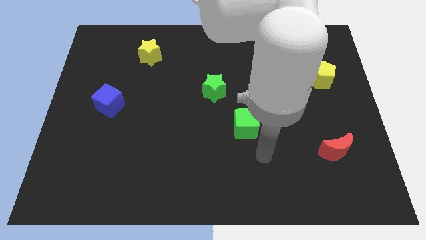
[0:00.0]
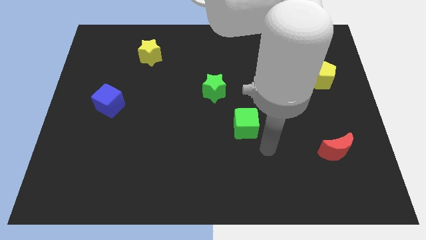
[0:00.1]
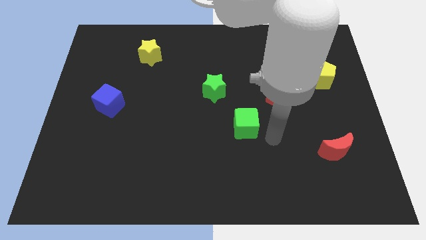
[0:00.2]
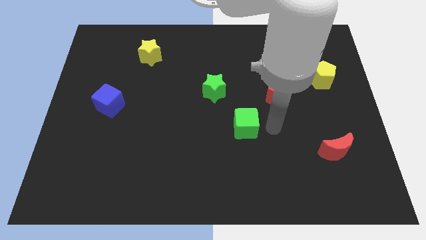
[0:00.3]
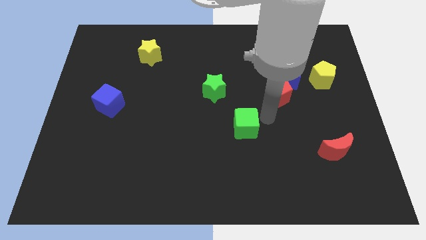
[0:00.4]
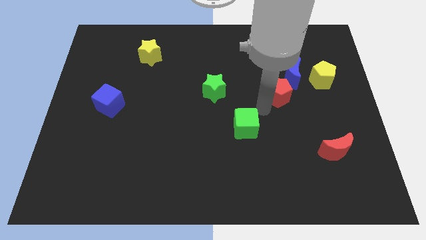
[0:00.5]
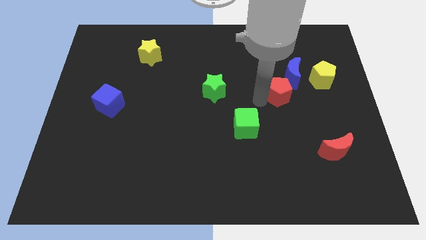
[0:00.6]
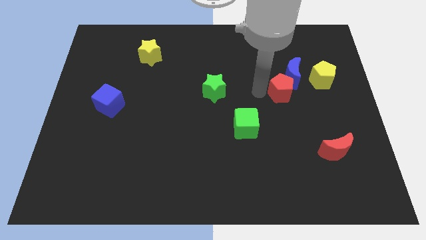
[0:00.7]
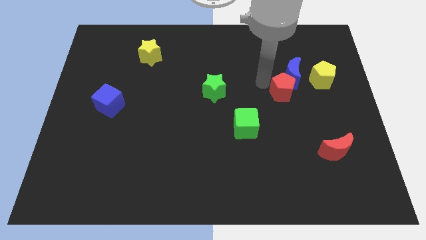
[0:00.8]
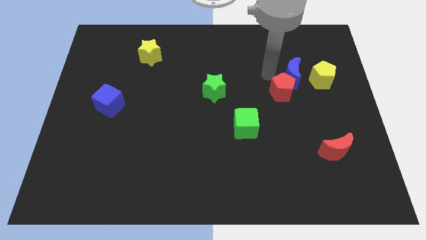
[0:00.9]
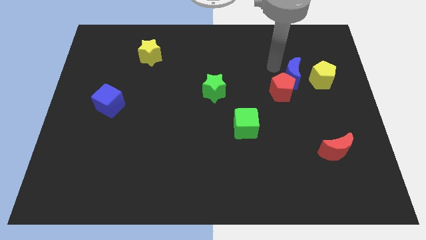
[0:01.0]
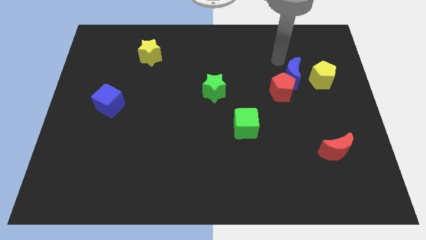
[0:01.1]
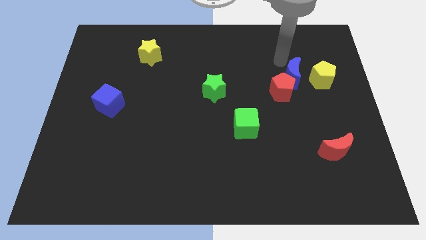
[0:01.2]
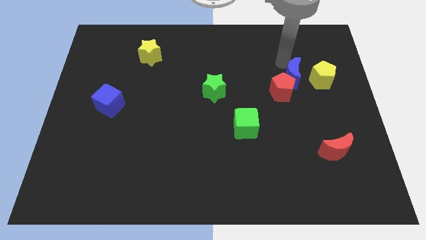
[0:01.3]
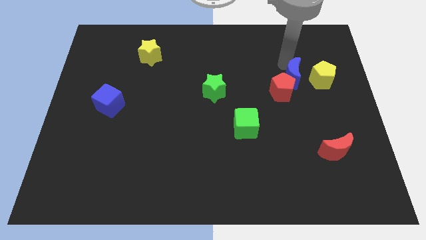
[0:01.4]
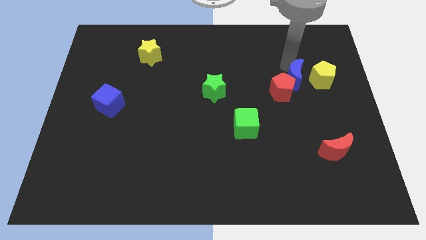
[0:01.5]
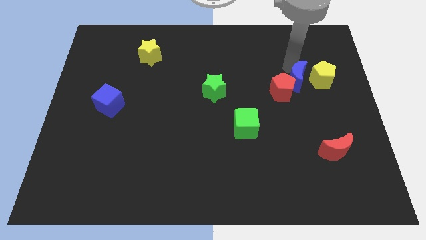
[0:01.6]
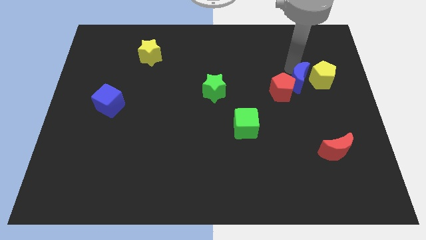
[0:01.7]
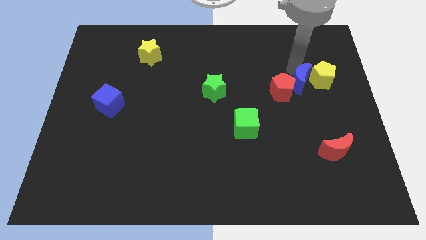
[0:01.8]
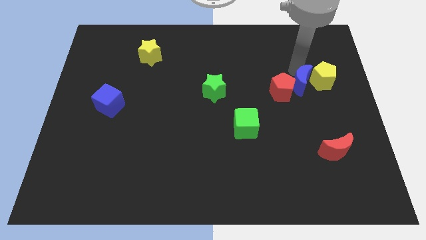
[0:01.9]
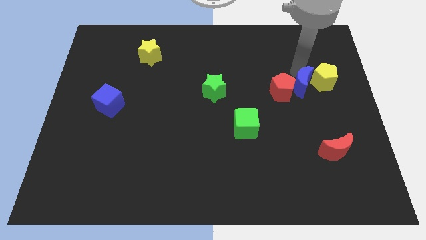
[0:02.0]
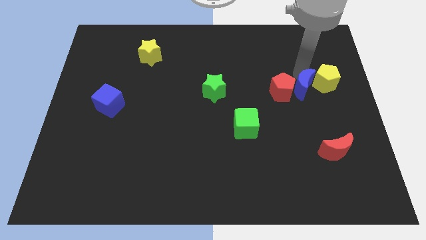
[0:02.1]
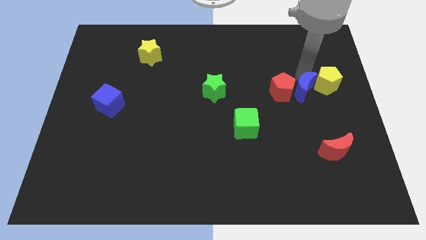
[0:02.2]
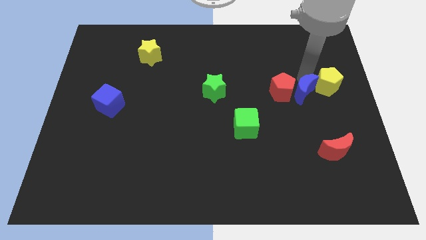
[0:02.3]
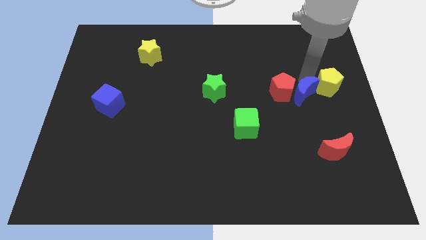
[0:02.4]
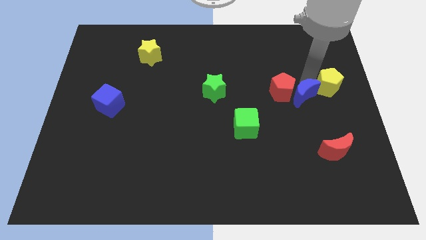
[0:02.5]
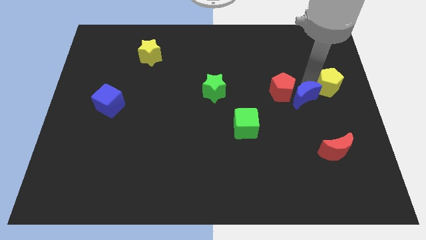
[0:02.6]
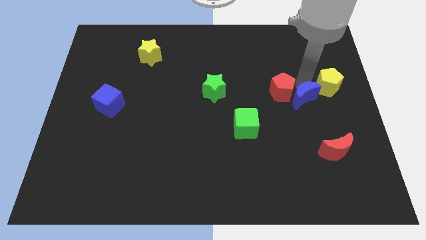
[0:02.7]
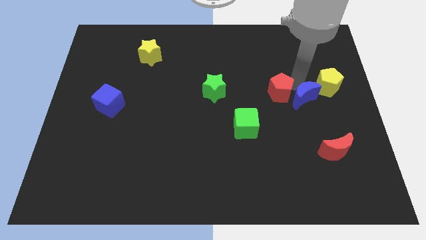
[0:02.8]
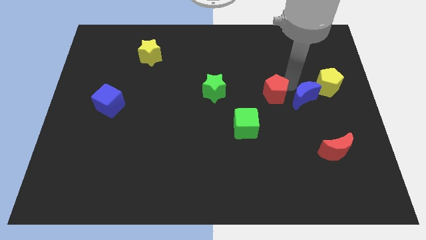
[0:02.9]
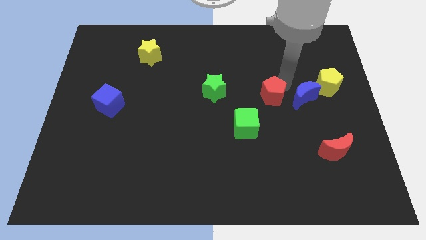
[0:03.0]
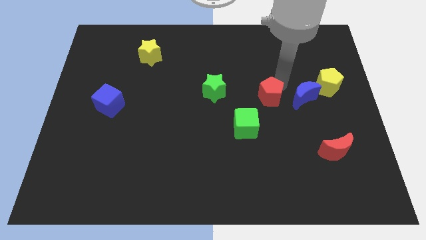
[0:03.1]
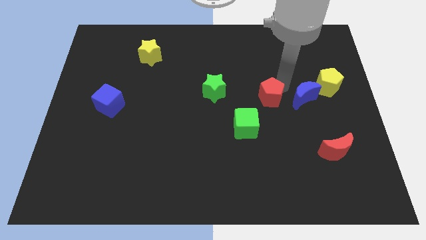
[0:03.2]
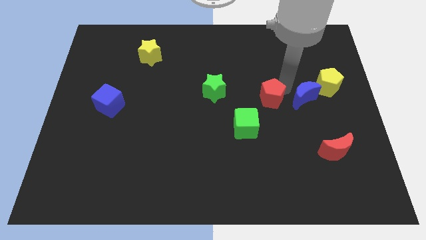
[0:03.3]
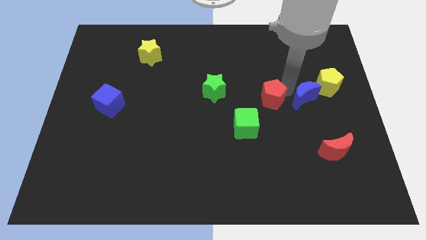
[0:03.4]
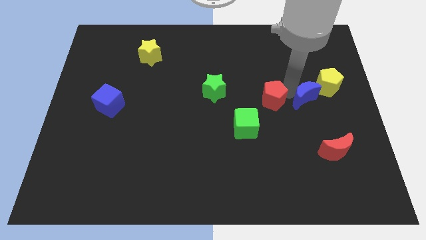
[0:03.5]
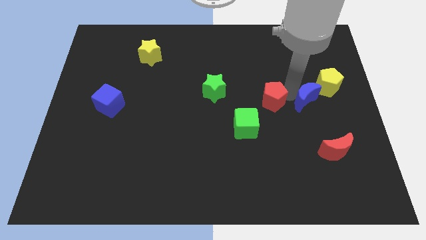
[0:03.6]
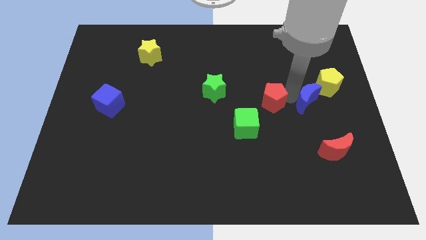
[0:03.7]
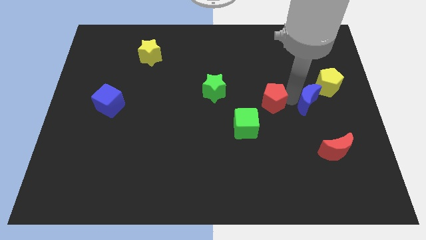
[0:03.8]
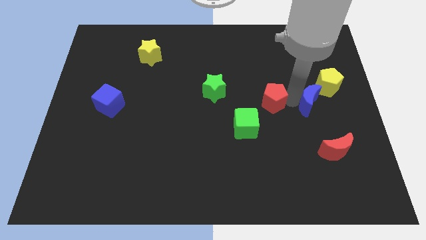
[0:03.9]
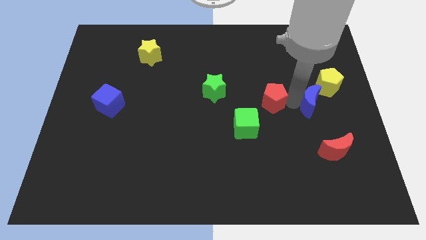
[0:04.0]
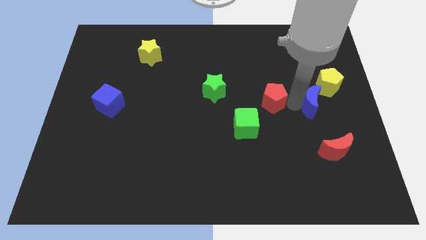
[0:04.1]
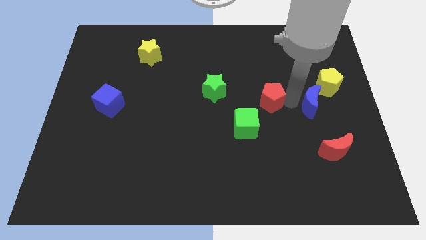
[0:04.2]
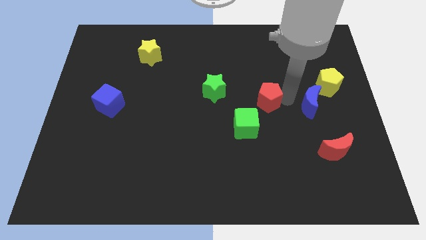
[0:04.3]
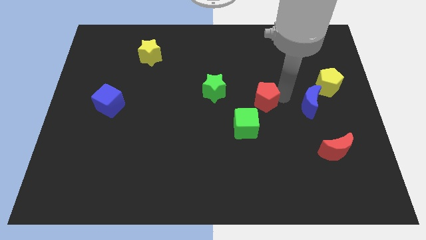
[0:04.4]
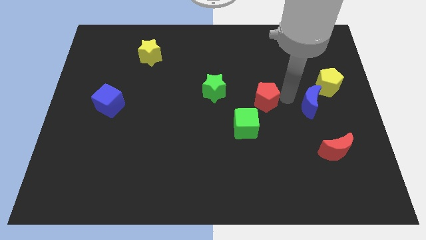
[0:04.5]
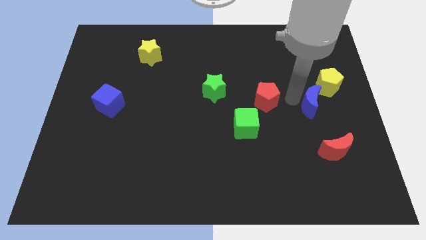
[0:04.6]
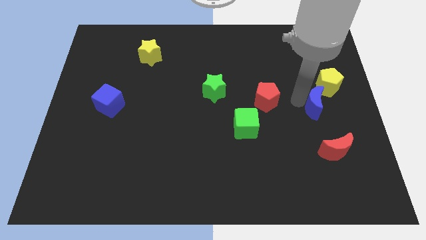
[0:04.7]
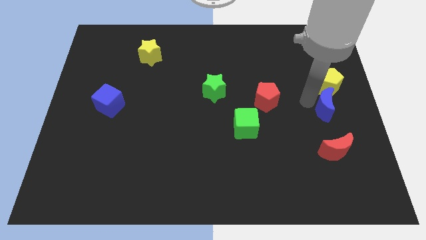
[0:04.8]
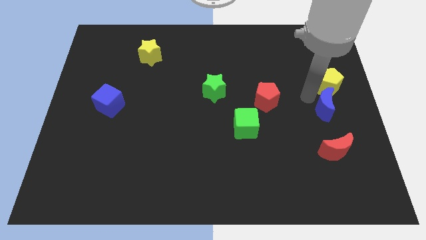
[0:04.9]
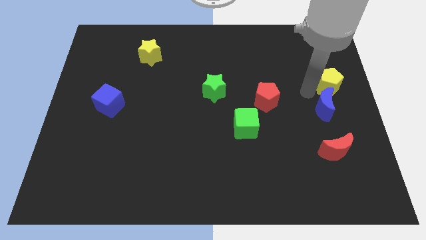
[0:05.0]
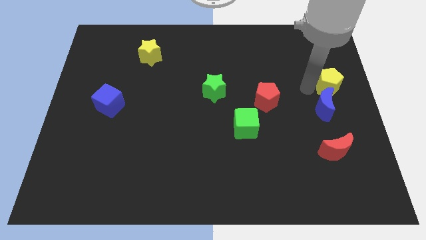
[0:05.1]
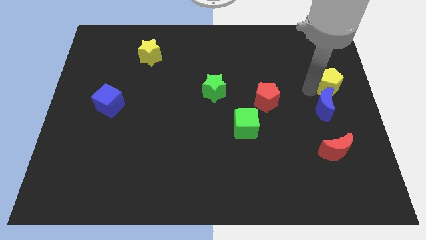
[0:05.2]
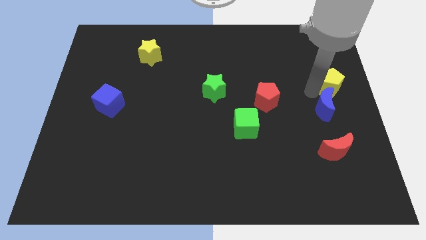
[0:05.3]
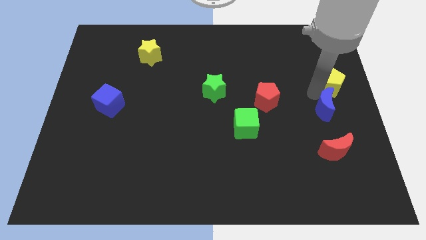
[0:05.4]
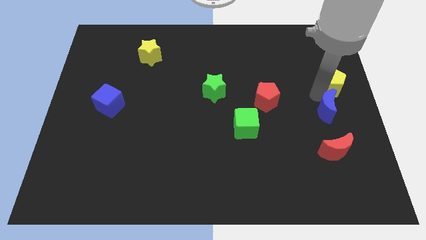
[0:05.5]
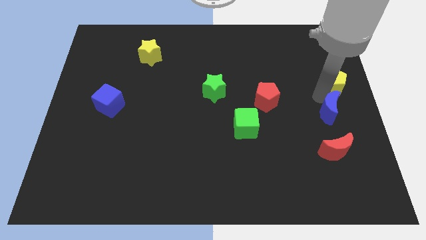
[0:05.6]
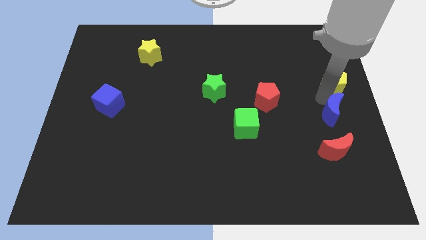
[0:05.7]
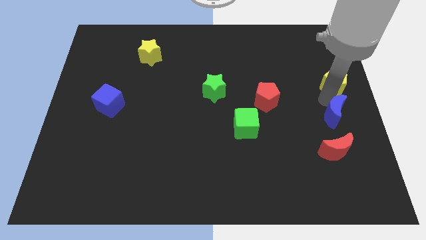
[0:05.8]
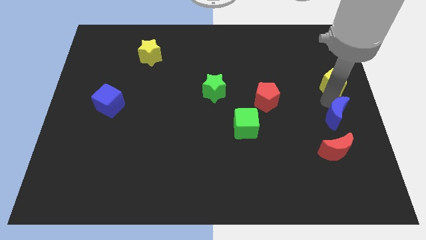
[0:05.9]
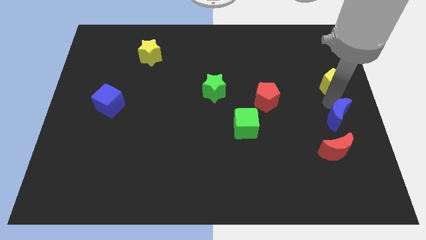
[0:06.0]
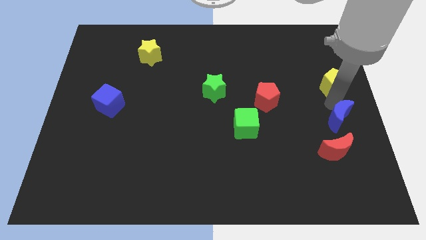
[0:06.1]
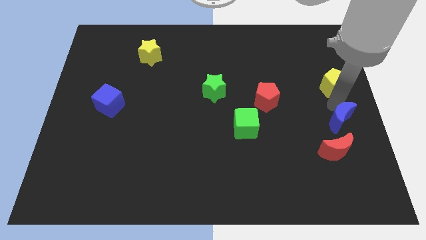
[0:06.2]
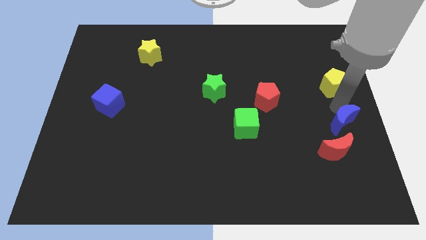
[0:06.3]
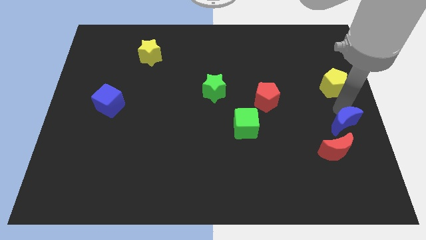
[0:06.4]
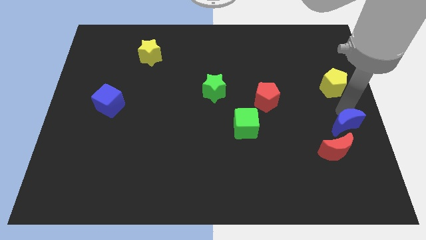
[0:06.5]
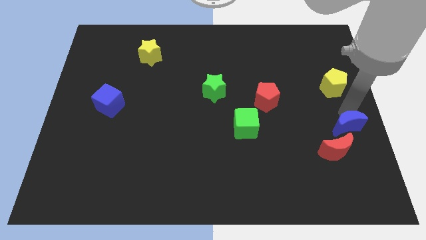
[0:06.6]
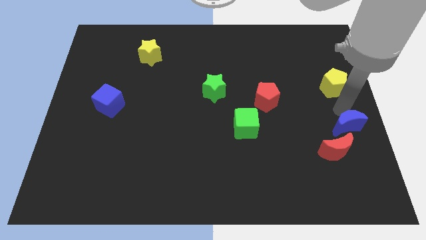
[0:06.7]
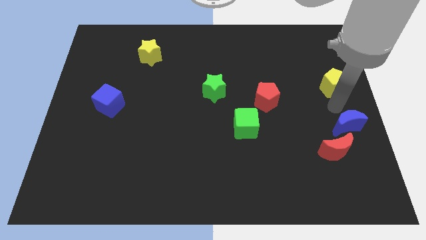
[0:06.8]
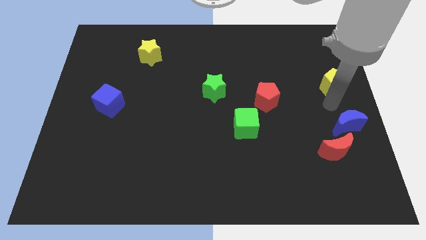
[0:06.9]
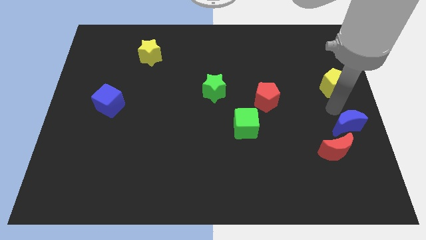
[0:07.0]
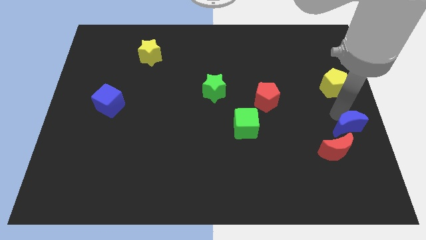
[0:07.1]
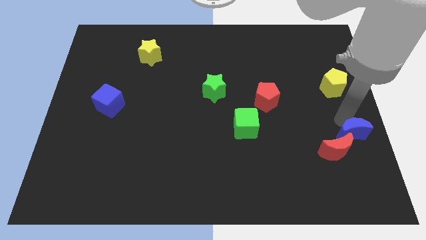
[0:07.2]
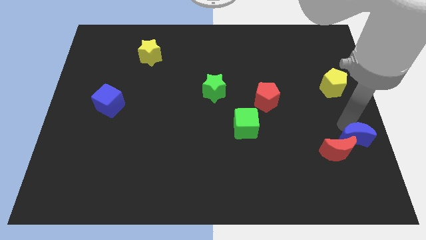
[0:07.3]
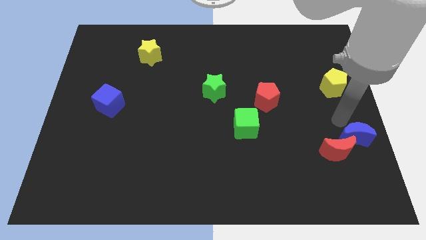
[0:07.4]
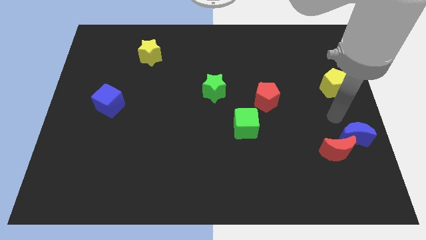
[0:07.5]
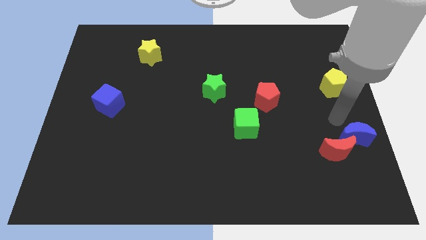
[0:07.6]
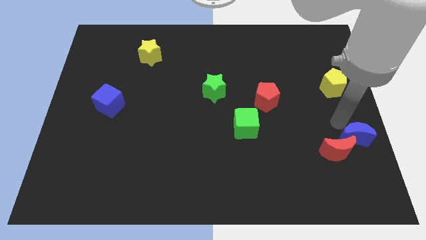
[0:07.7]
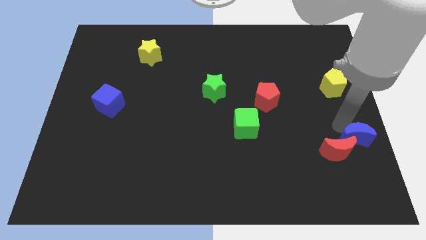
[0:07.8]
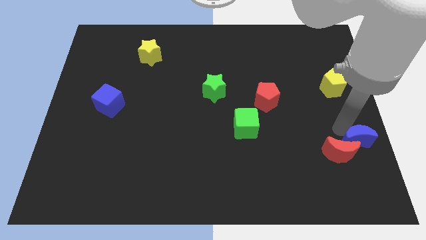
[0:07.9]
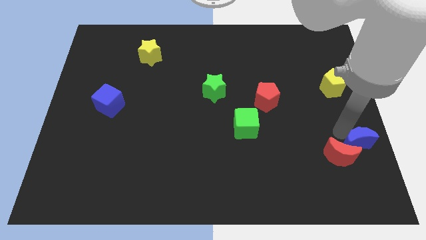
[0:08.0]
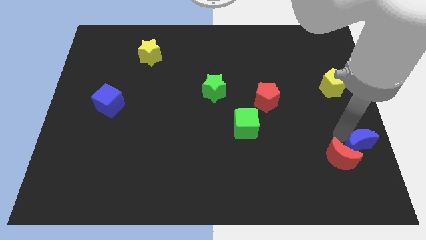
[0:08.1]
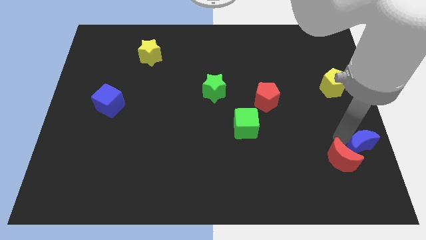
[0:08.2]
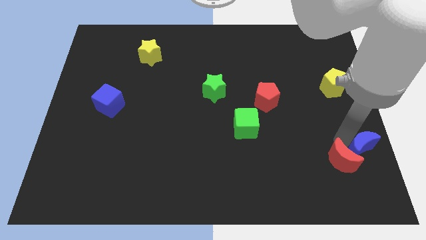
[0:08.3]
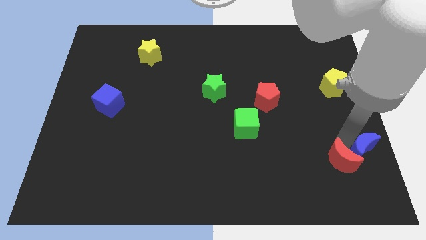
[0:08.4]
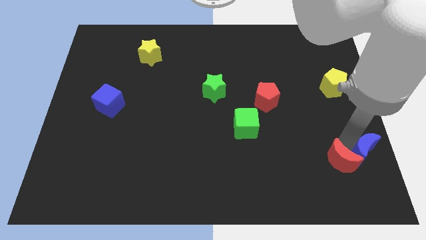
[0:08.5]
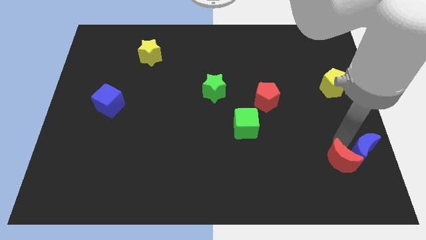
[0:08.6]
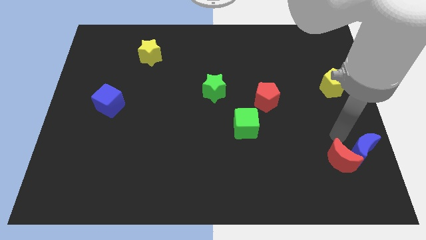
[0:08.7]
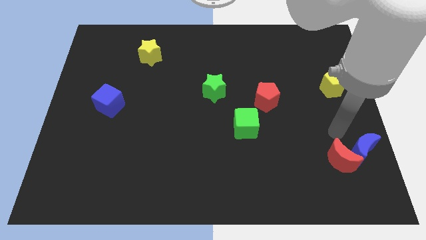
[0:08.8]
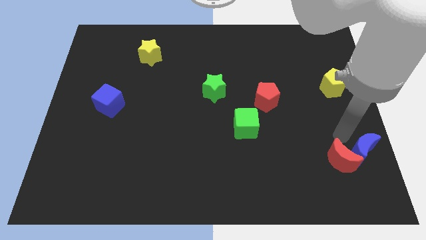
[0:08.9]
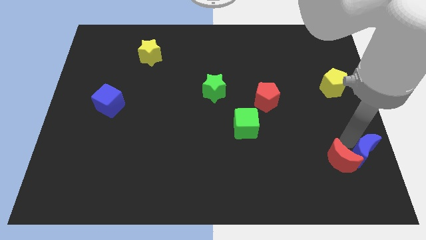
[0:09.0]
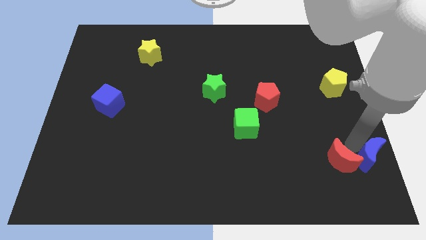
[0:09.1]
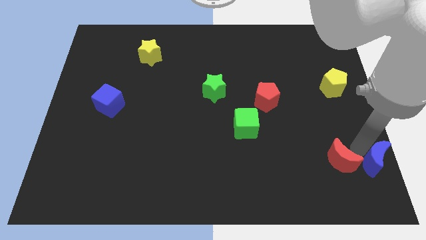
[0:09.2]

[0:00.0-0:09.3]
push the blue moon to the lower right corner
